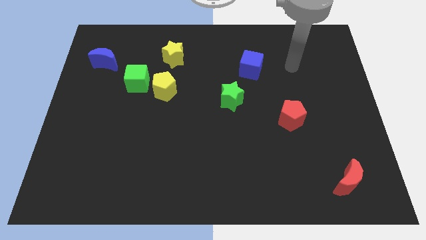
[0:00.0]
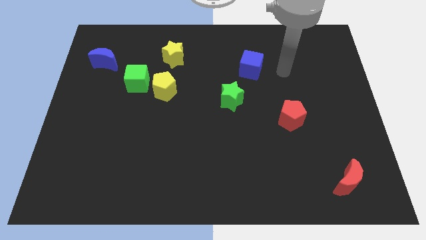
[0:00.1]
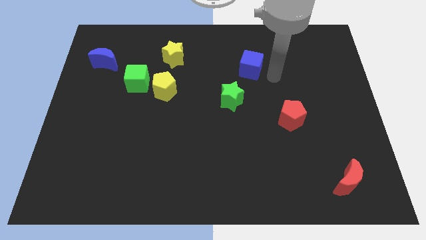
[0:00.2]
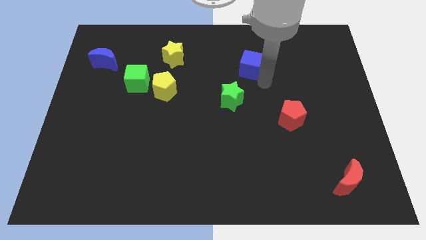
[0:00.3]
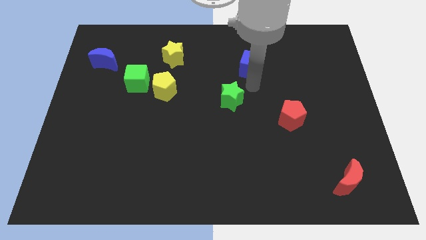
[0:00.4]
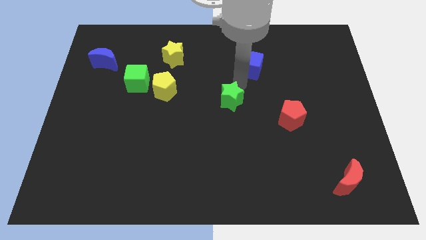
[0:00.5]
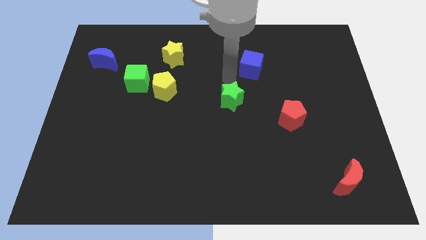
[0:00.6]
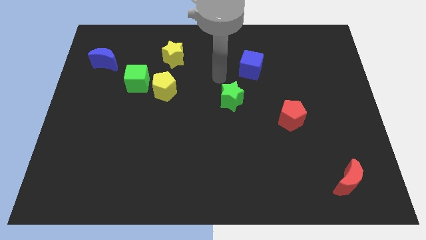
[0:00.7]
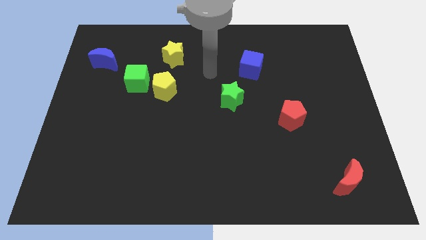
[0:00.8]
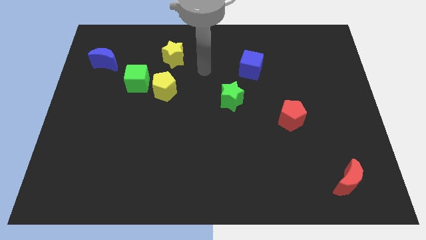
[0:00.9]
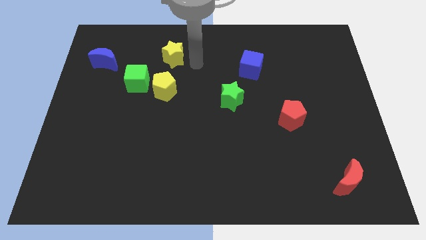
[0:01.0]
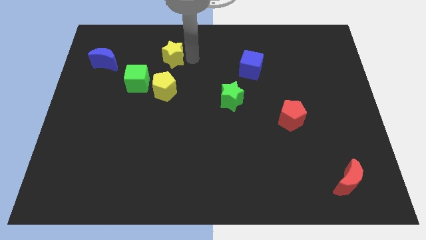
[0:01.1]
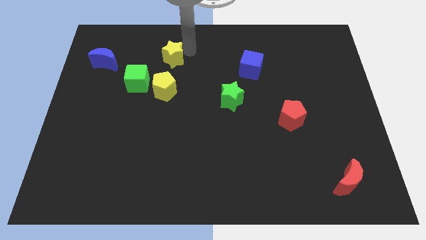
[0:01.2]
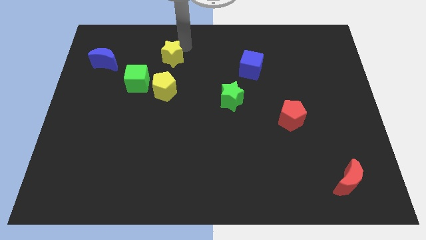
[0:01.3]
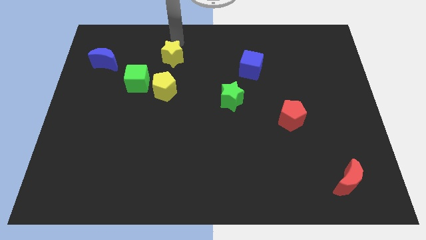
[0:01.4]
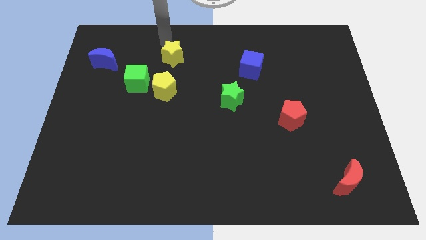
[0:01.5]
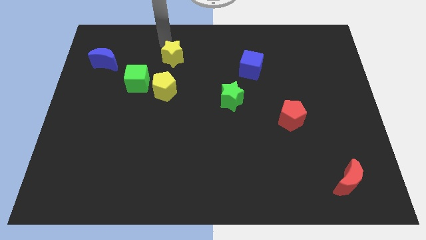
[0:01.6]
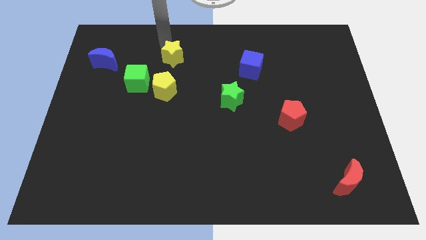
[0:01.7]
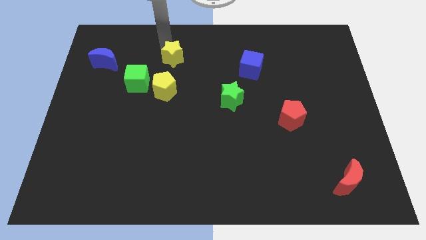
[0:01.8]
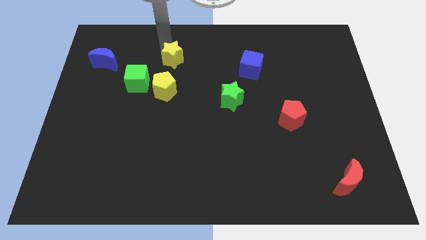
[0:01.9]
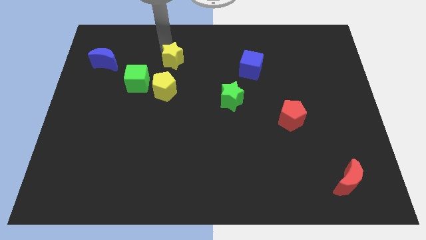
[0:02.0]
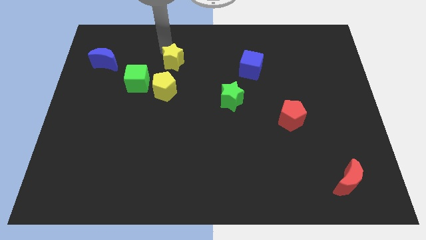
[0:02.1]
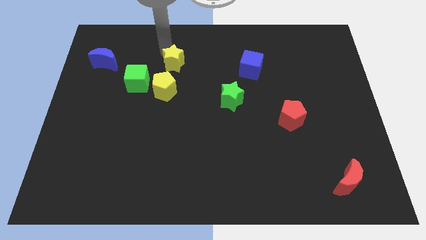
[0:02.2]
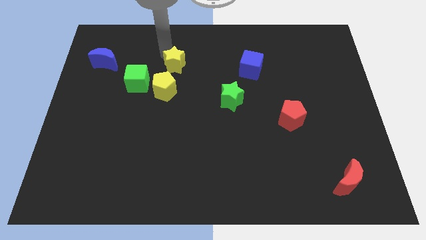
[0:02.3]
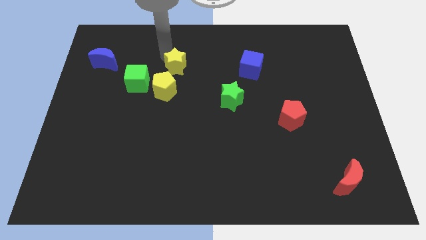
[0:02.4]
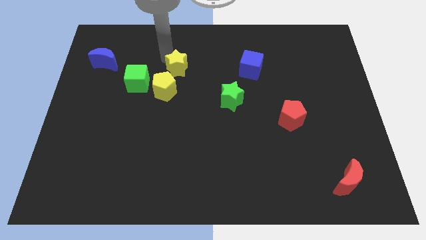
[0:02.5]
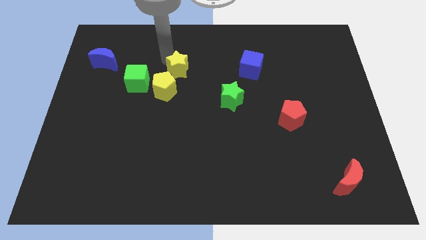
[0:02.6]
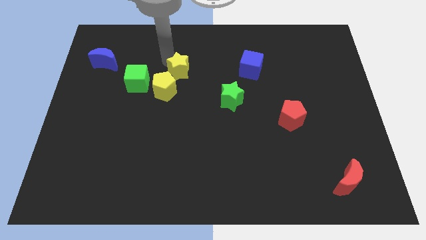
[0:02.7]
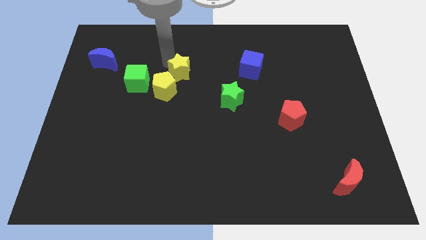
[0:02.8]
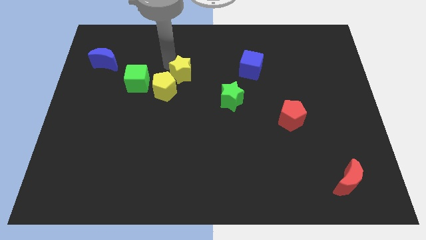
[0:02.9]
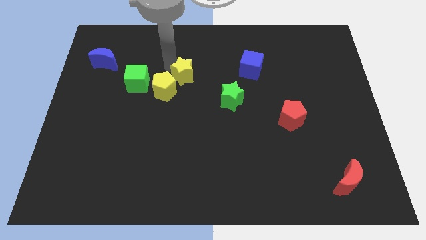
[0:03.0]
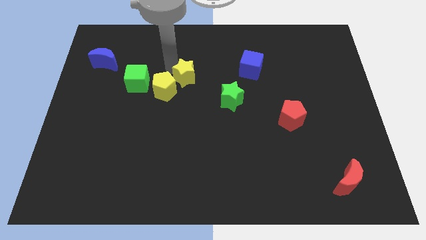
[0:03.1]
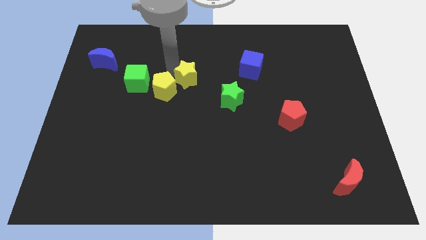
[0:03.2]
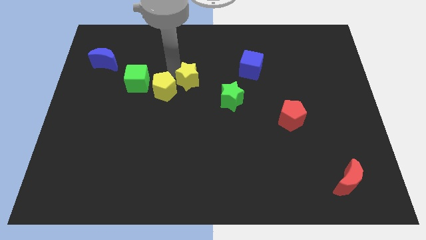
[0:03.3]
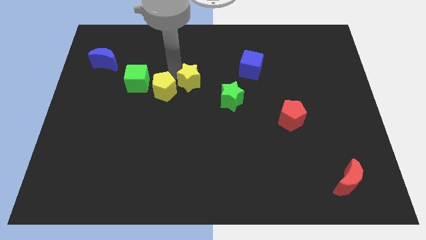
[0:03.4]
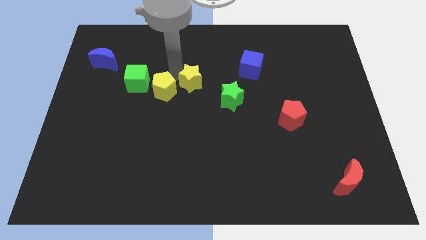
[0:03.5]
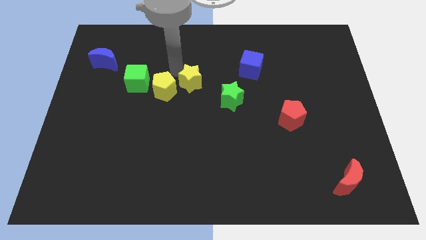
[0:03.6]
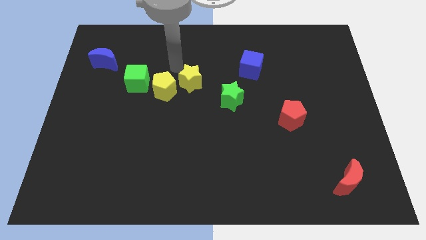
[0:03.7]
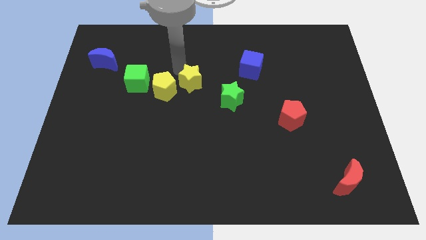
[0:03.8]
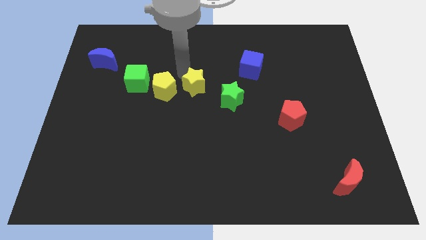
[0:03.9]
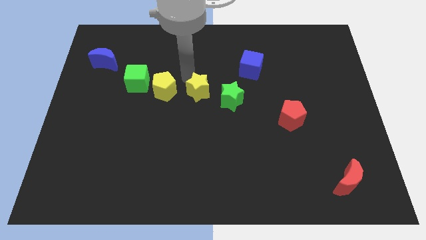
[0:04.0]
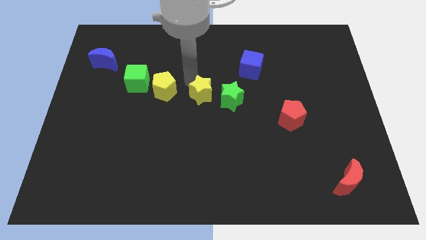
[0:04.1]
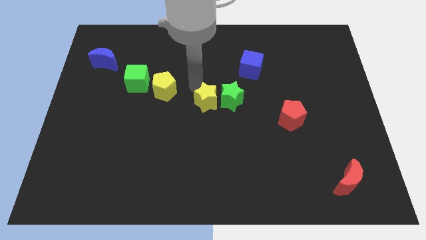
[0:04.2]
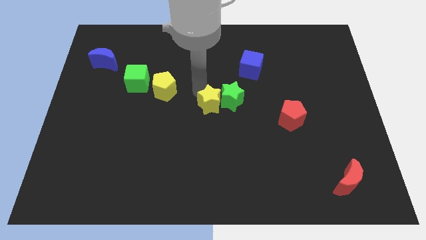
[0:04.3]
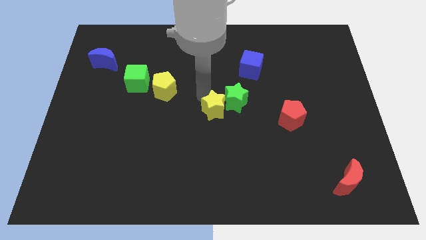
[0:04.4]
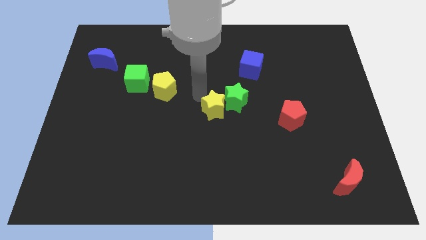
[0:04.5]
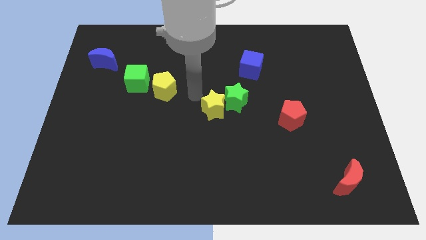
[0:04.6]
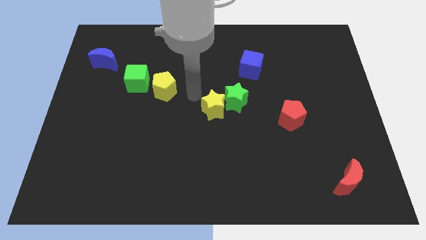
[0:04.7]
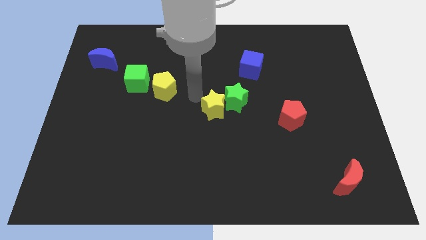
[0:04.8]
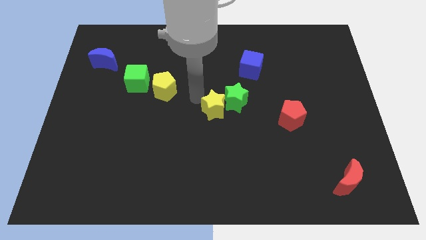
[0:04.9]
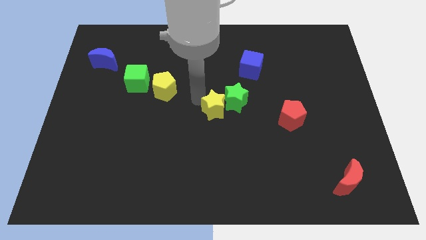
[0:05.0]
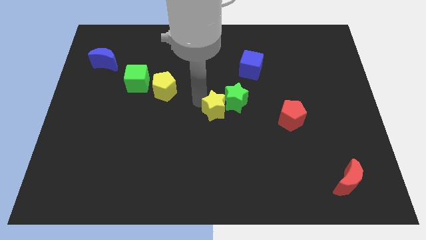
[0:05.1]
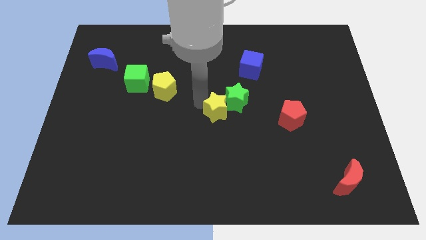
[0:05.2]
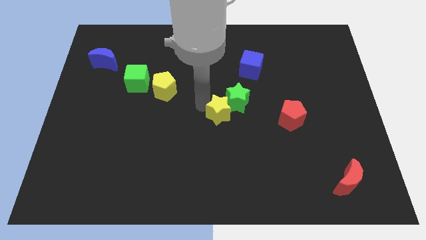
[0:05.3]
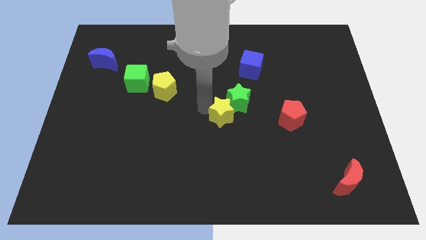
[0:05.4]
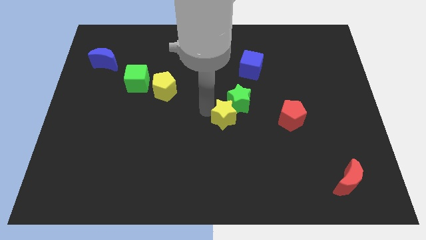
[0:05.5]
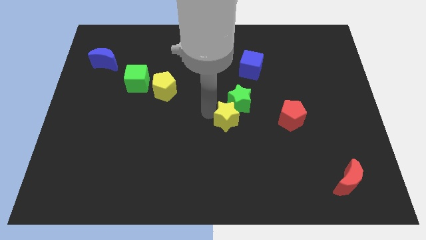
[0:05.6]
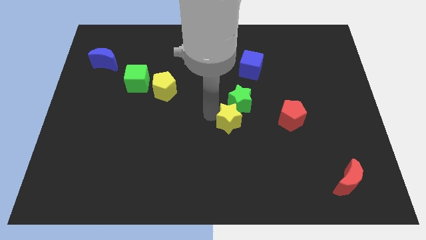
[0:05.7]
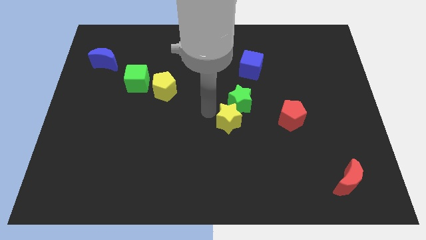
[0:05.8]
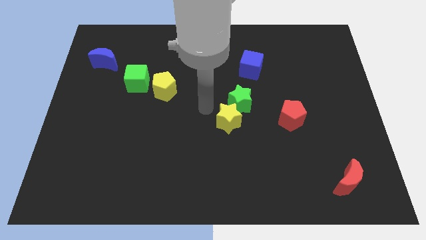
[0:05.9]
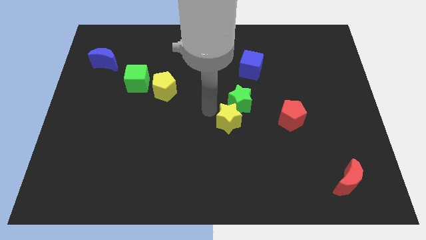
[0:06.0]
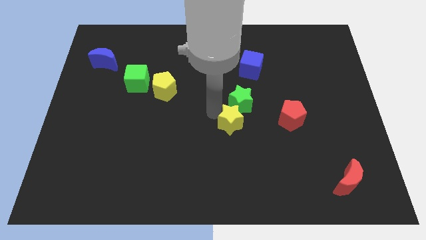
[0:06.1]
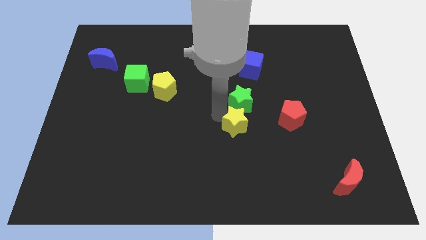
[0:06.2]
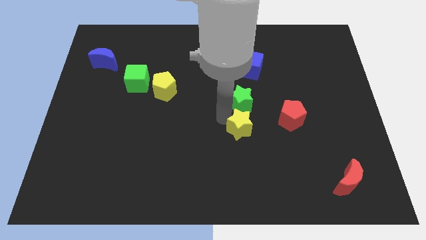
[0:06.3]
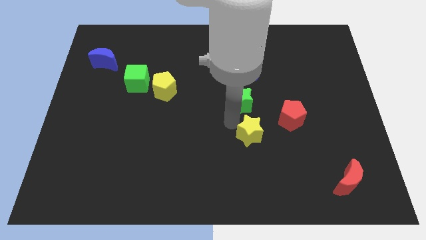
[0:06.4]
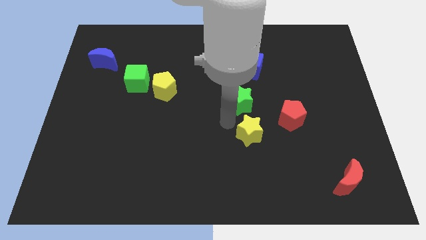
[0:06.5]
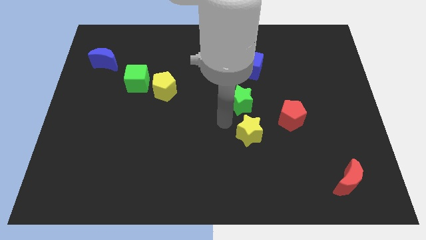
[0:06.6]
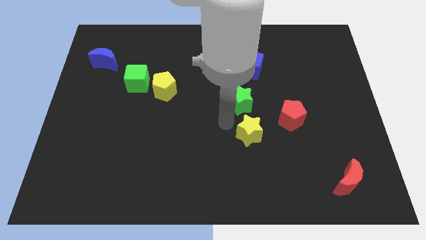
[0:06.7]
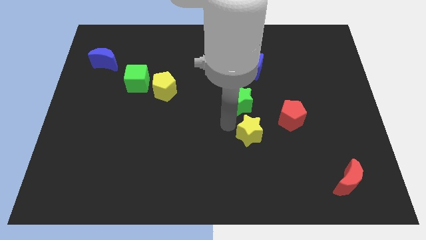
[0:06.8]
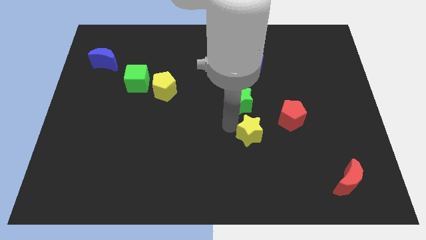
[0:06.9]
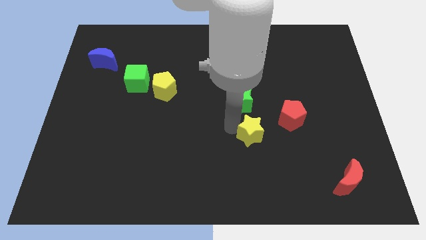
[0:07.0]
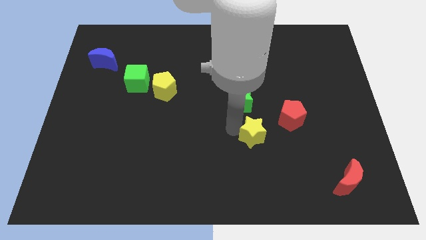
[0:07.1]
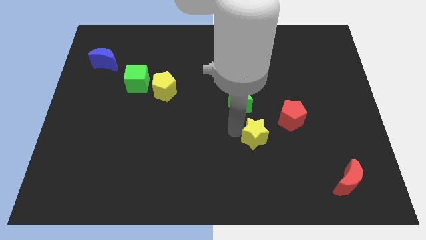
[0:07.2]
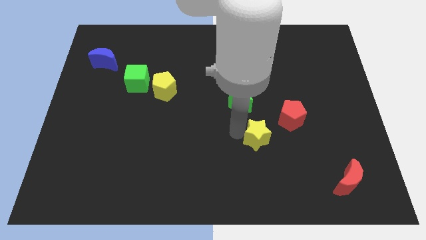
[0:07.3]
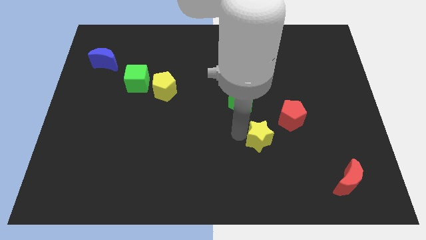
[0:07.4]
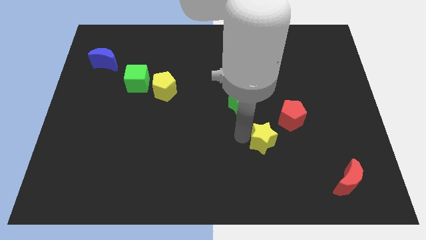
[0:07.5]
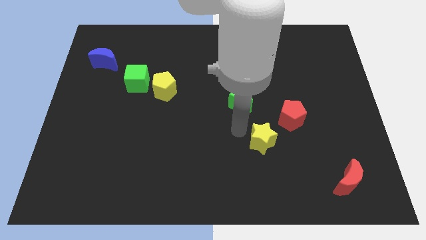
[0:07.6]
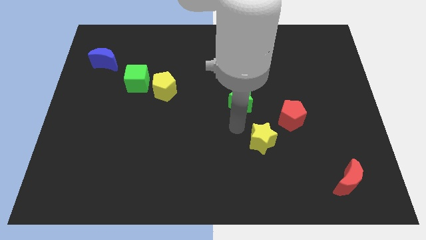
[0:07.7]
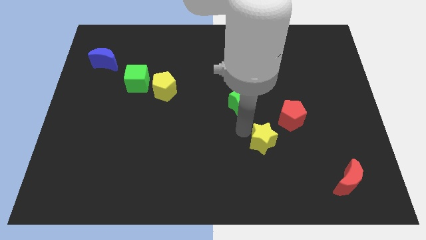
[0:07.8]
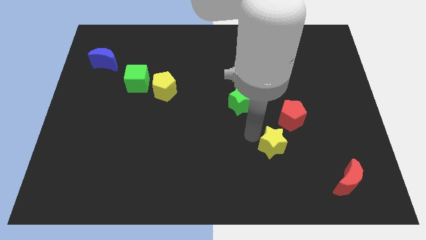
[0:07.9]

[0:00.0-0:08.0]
slide the yellow star to the bottom side of the red pentagon
